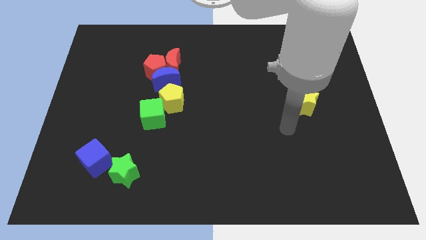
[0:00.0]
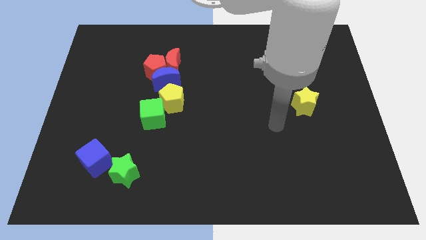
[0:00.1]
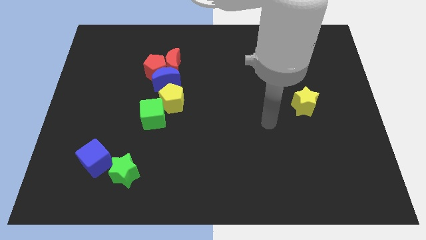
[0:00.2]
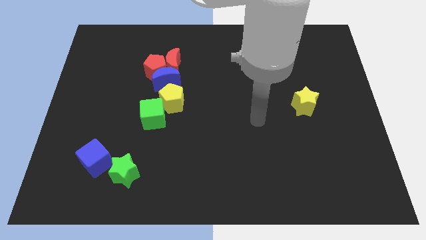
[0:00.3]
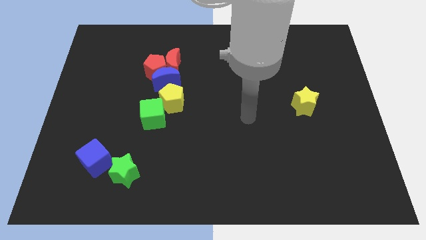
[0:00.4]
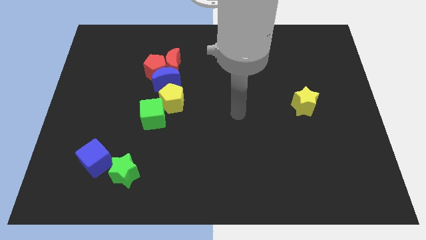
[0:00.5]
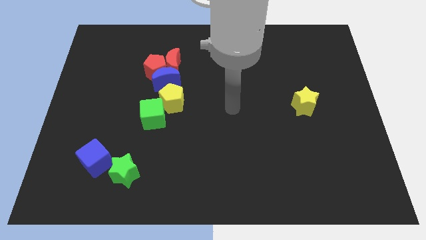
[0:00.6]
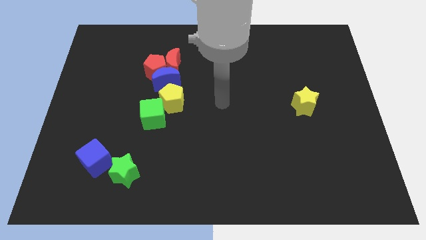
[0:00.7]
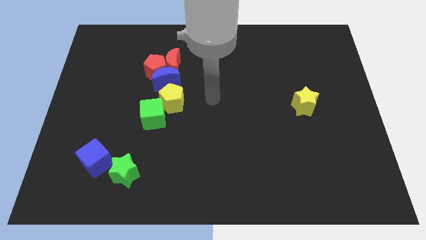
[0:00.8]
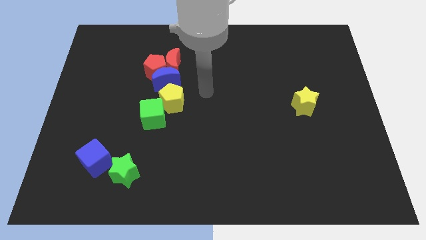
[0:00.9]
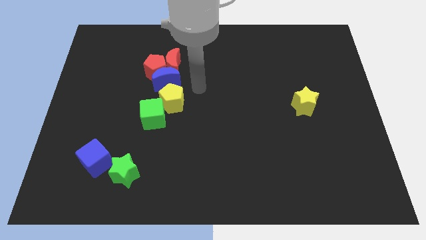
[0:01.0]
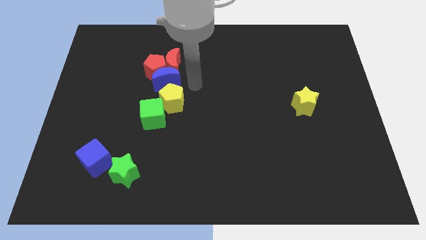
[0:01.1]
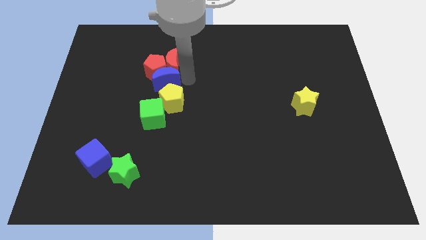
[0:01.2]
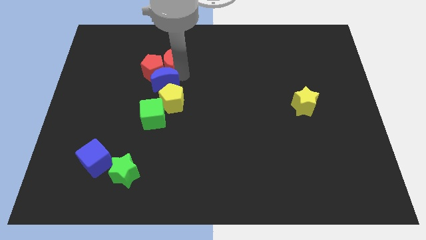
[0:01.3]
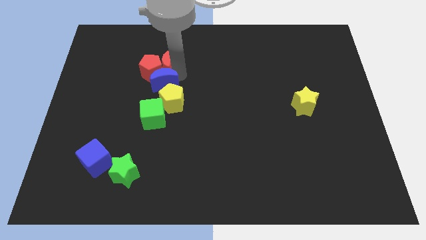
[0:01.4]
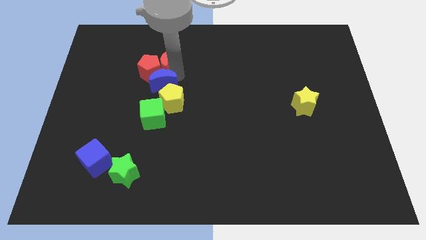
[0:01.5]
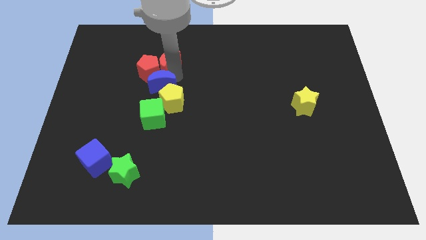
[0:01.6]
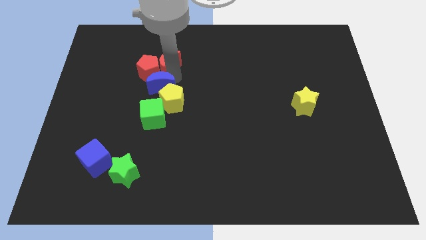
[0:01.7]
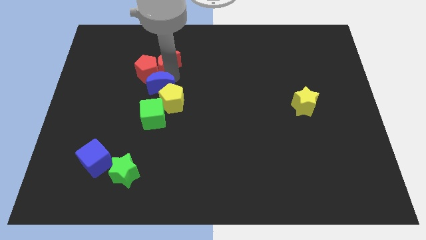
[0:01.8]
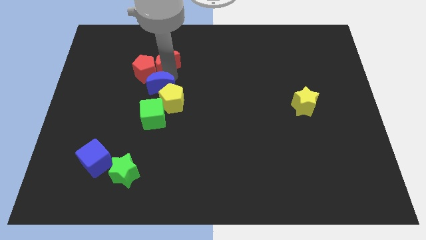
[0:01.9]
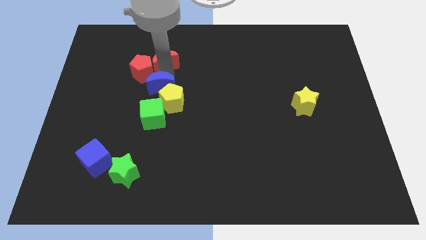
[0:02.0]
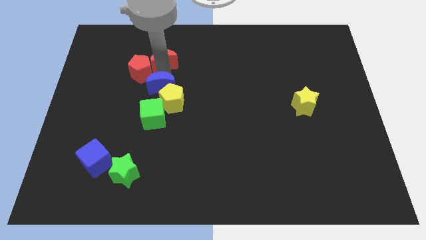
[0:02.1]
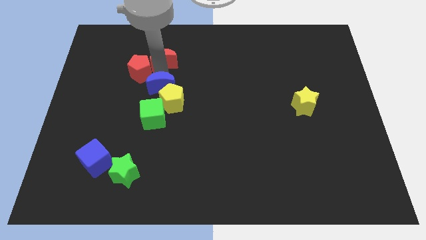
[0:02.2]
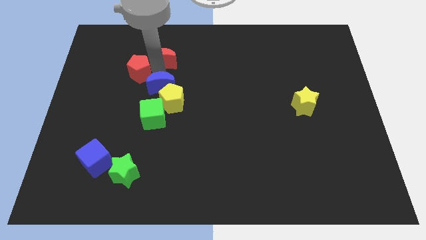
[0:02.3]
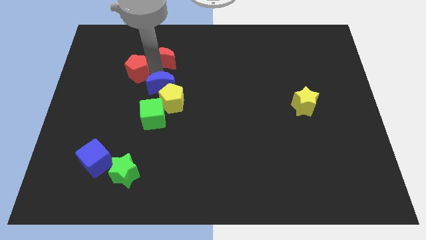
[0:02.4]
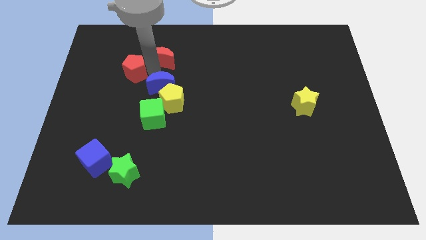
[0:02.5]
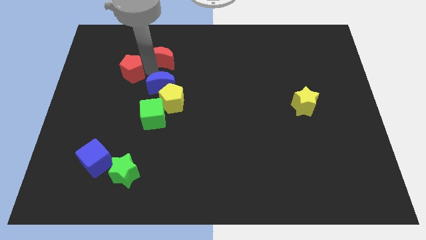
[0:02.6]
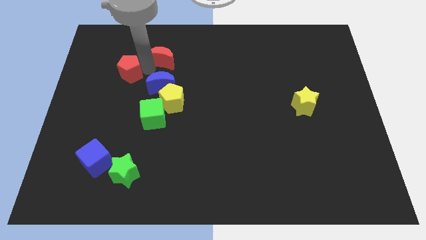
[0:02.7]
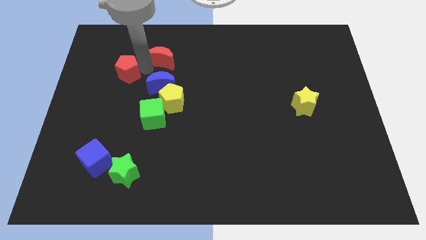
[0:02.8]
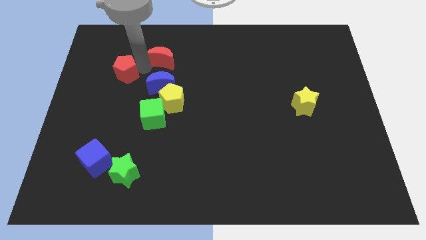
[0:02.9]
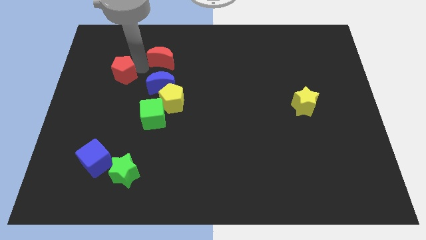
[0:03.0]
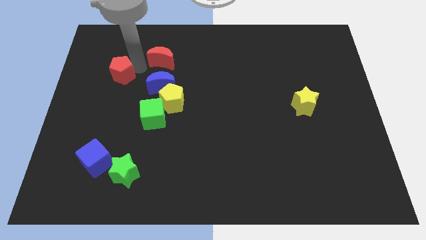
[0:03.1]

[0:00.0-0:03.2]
separate the red pentagon from the blue moon and red moon

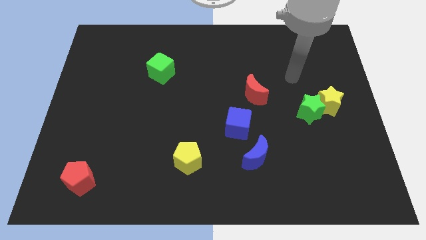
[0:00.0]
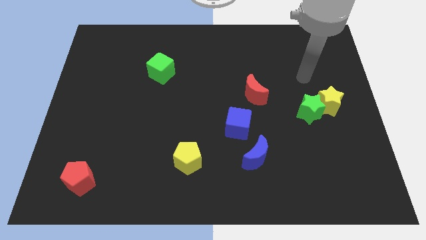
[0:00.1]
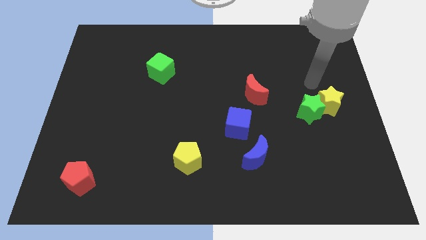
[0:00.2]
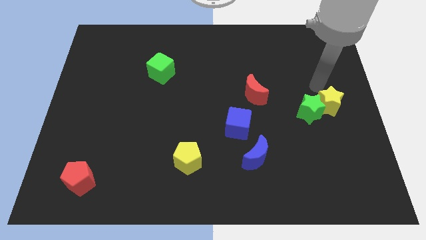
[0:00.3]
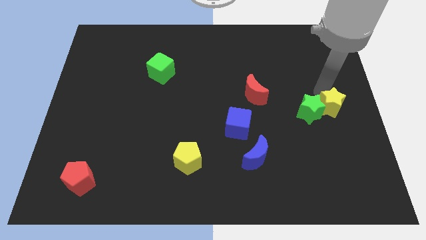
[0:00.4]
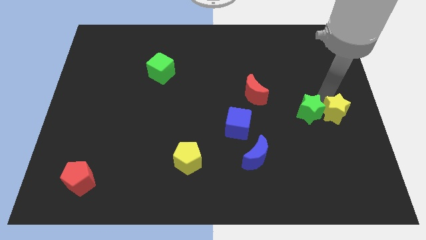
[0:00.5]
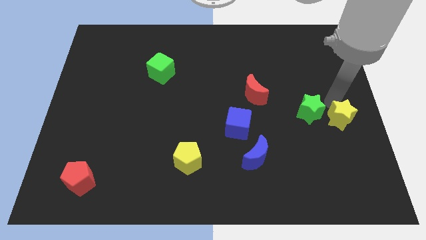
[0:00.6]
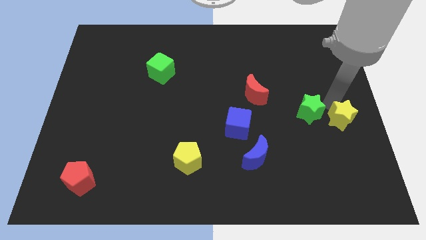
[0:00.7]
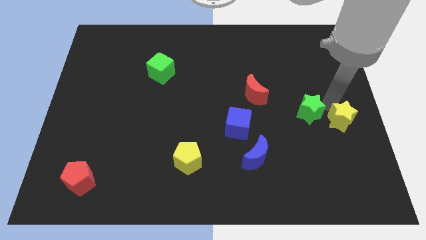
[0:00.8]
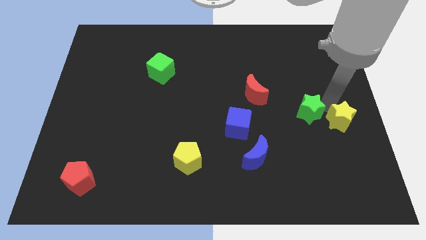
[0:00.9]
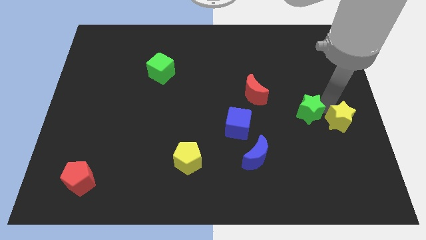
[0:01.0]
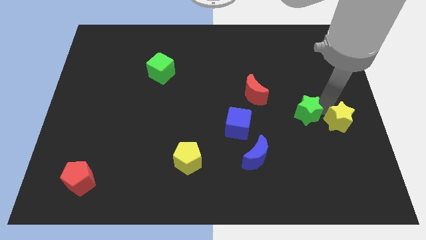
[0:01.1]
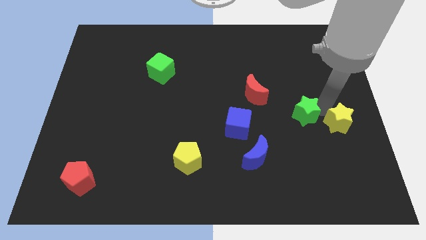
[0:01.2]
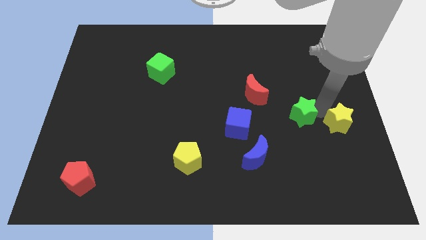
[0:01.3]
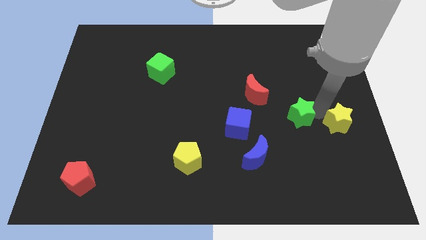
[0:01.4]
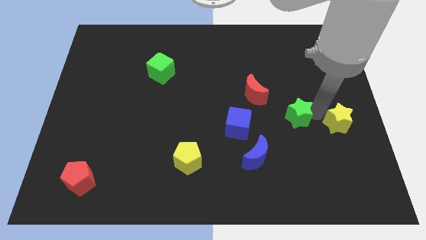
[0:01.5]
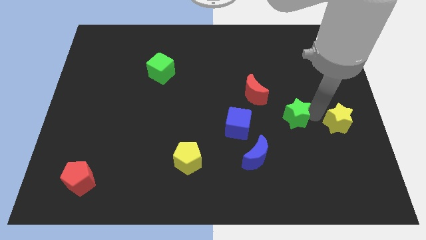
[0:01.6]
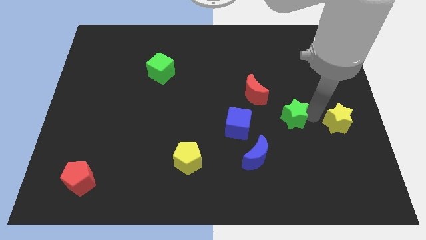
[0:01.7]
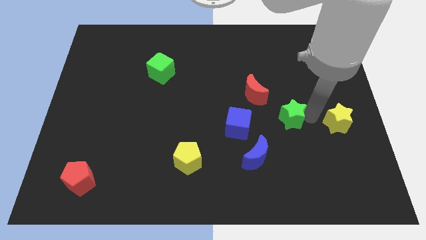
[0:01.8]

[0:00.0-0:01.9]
separate the green star from the yellow star

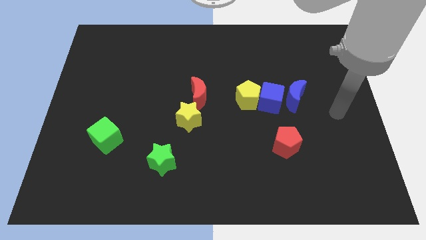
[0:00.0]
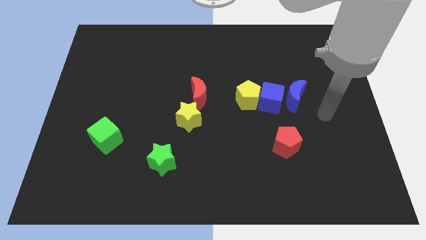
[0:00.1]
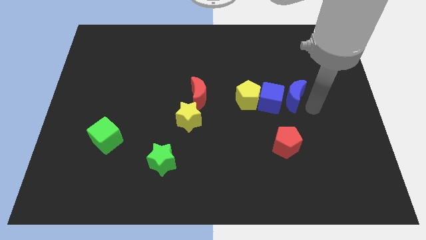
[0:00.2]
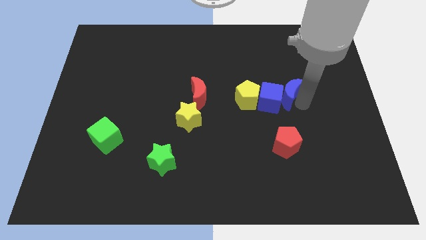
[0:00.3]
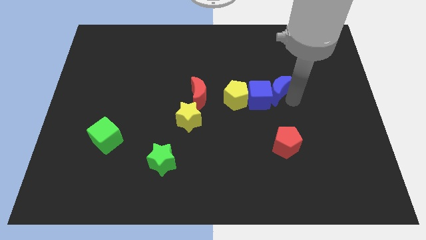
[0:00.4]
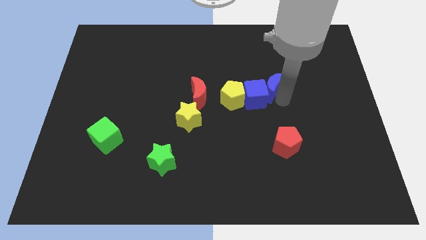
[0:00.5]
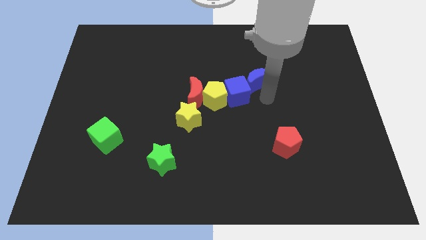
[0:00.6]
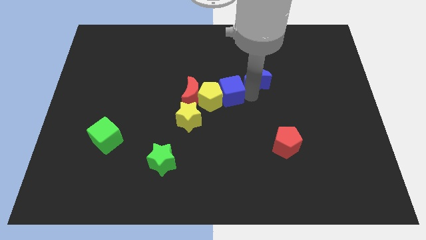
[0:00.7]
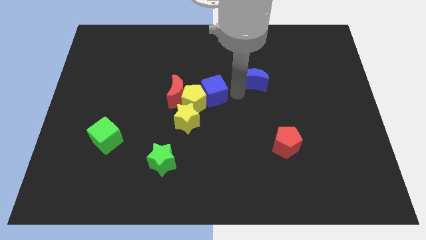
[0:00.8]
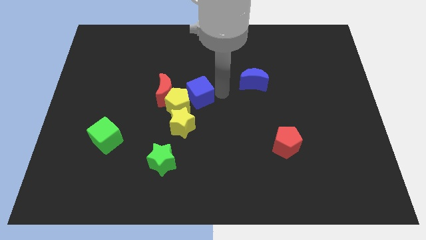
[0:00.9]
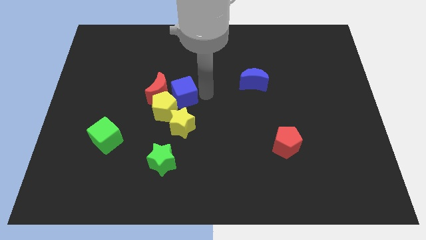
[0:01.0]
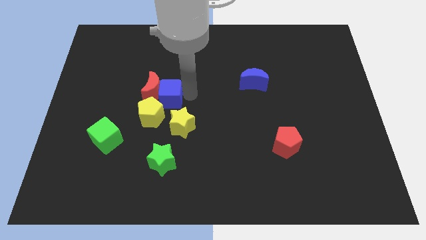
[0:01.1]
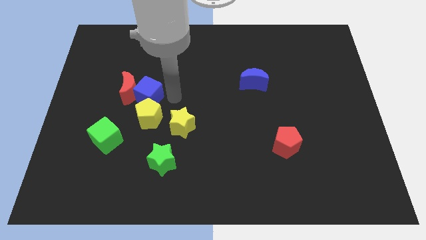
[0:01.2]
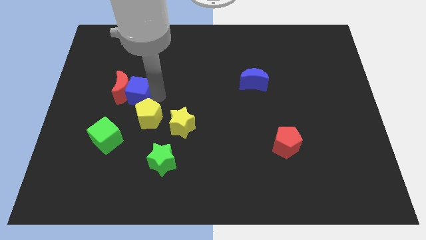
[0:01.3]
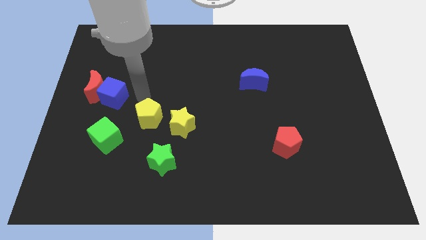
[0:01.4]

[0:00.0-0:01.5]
move the yellow pentagon away from the blue cube

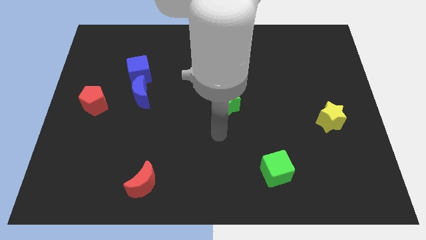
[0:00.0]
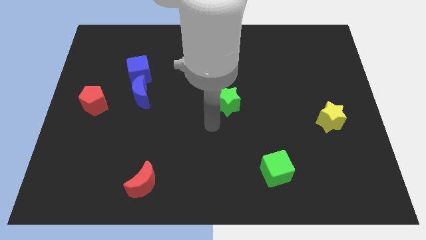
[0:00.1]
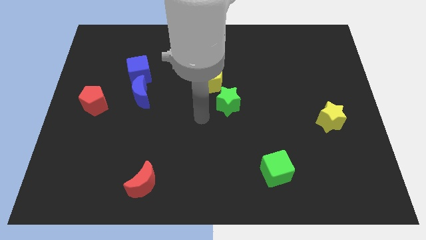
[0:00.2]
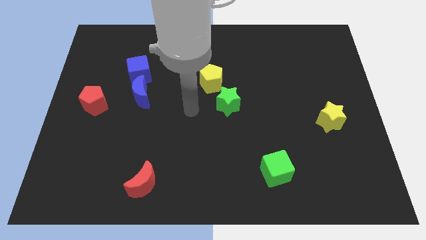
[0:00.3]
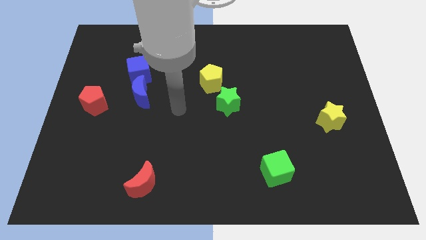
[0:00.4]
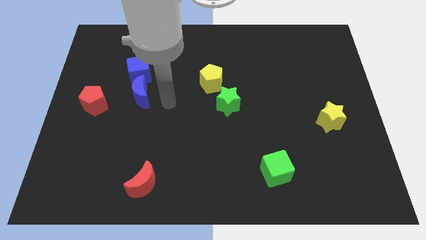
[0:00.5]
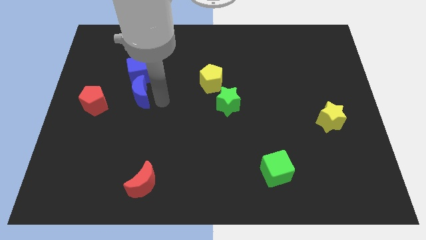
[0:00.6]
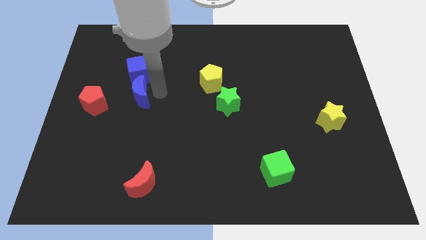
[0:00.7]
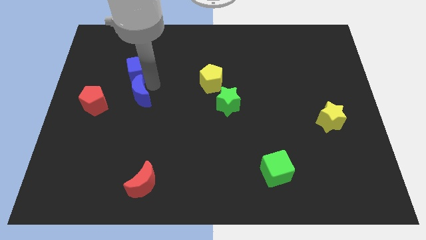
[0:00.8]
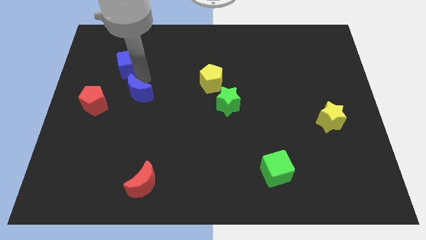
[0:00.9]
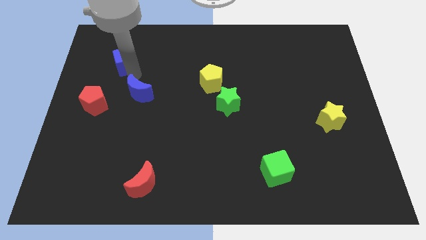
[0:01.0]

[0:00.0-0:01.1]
move the blue moon away from the blue cube

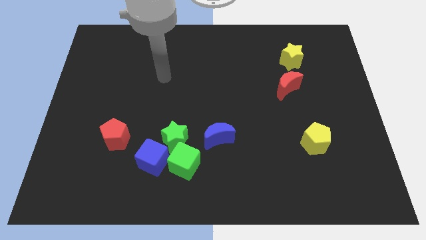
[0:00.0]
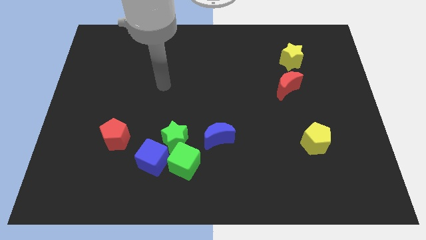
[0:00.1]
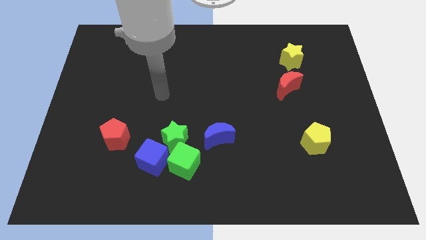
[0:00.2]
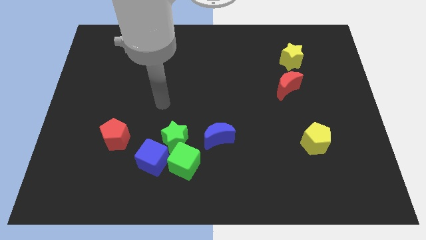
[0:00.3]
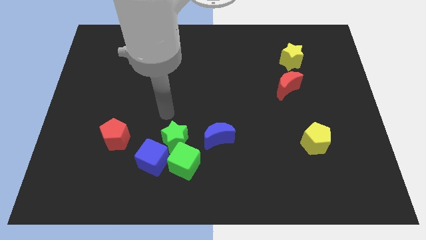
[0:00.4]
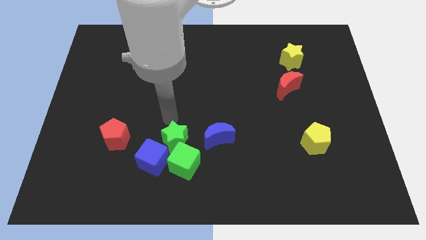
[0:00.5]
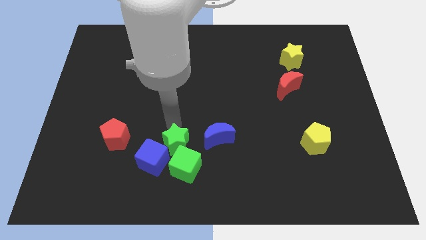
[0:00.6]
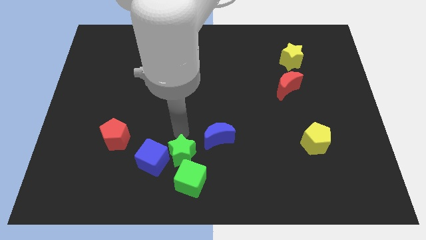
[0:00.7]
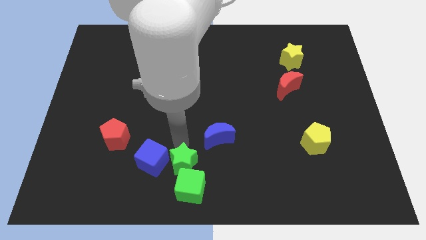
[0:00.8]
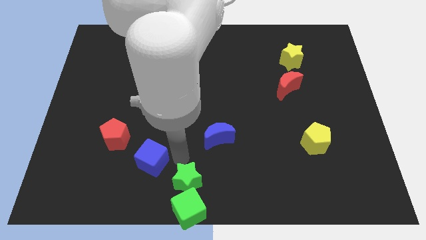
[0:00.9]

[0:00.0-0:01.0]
pull the blue cube apart from the green star and green cube

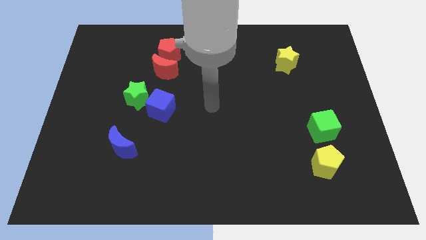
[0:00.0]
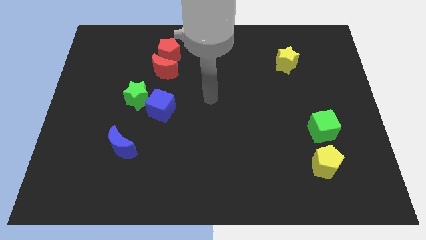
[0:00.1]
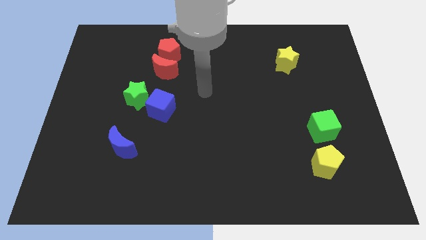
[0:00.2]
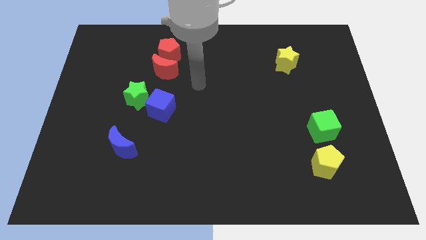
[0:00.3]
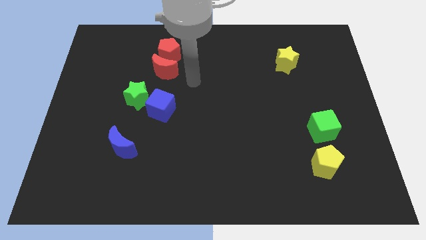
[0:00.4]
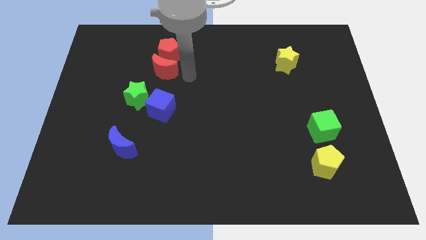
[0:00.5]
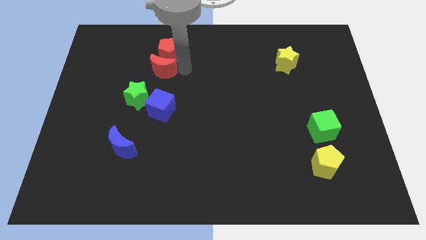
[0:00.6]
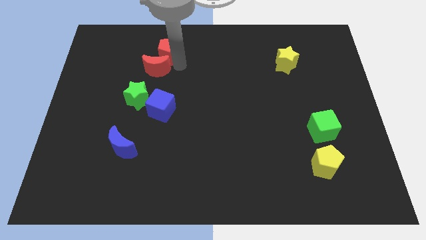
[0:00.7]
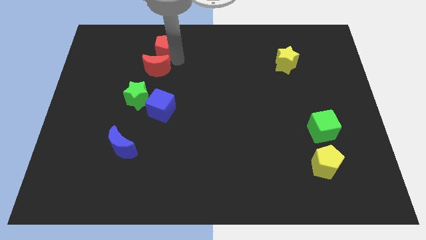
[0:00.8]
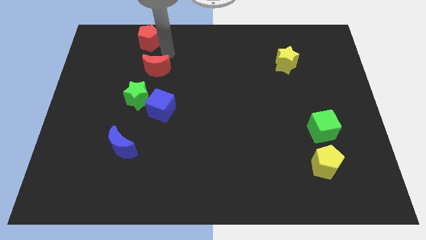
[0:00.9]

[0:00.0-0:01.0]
separate the red moon from the red pentagon
